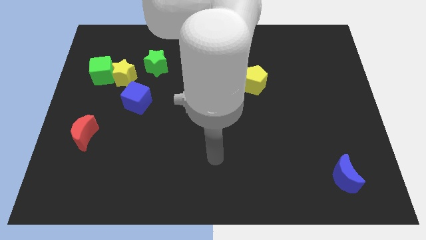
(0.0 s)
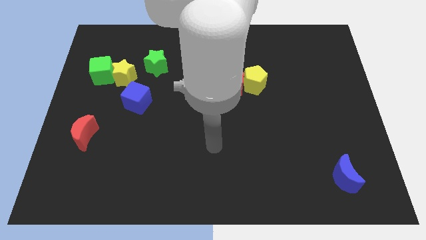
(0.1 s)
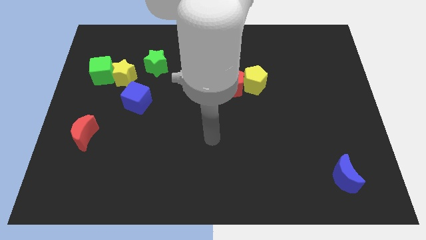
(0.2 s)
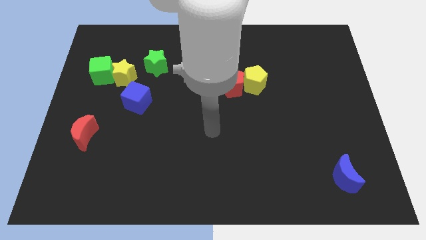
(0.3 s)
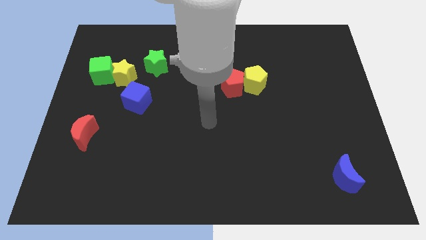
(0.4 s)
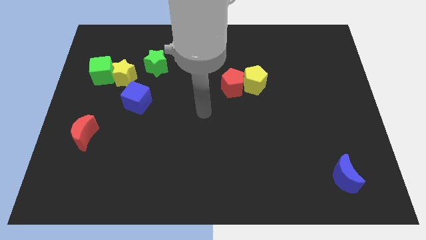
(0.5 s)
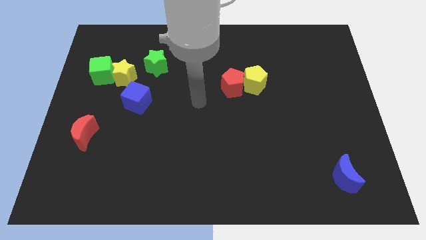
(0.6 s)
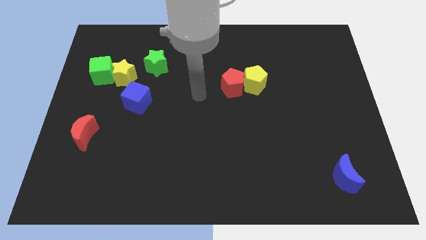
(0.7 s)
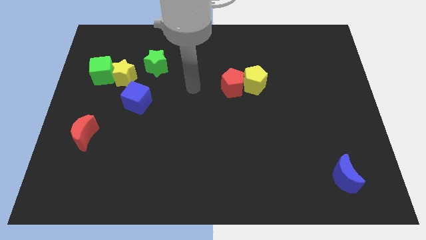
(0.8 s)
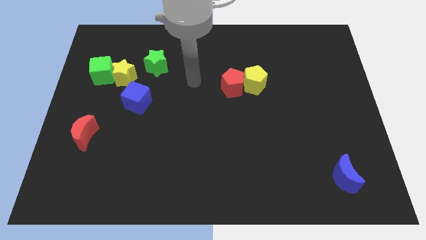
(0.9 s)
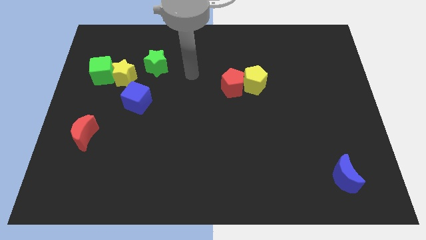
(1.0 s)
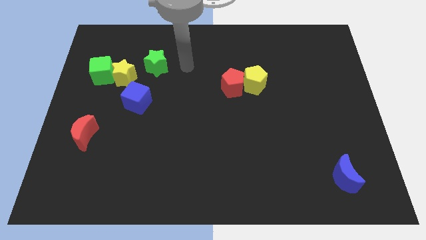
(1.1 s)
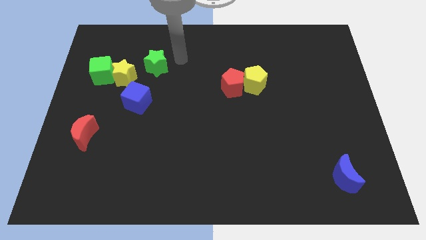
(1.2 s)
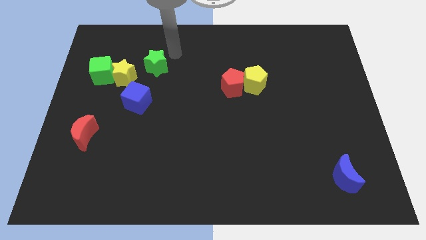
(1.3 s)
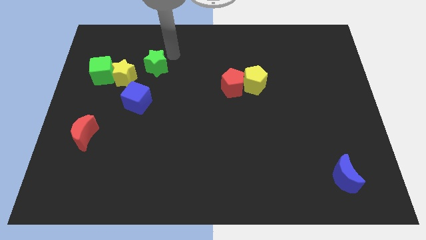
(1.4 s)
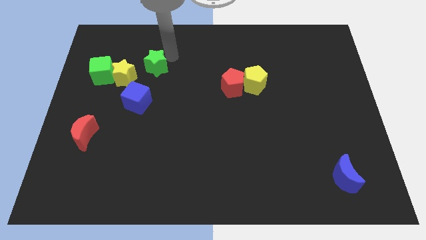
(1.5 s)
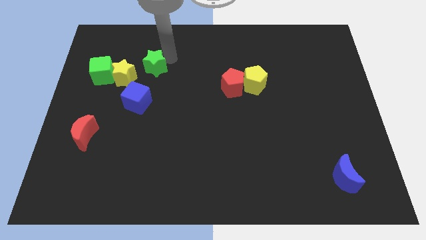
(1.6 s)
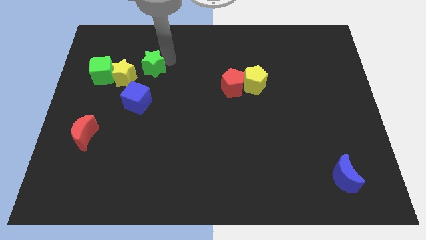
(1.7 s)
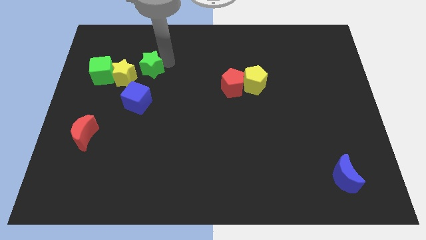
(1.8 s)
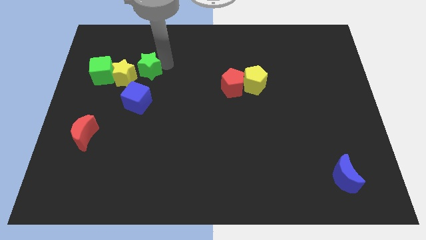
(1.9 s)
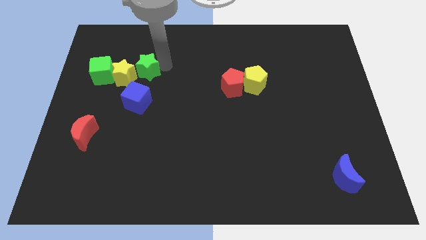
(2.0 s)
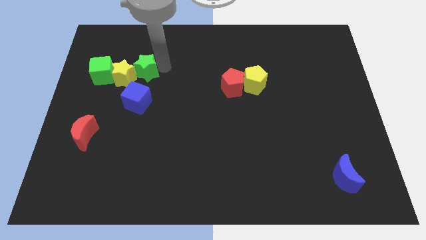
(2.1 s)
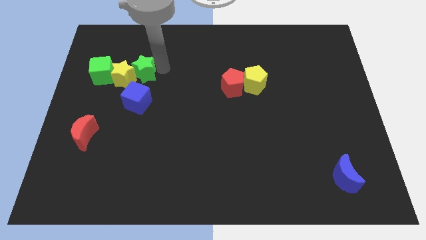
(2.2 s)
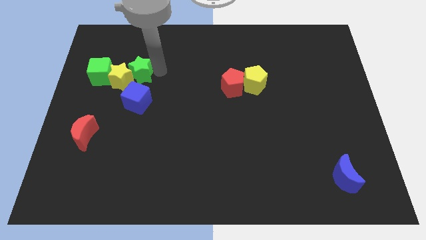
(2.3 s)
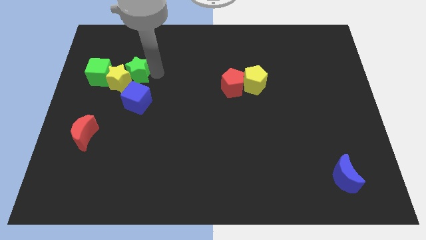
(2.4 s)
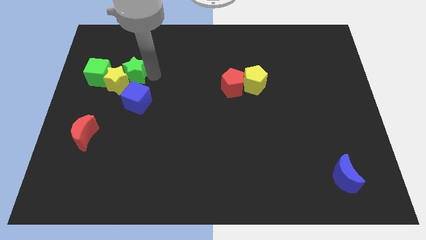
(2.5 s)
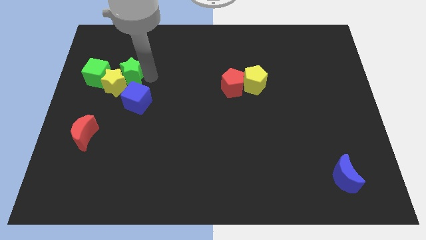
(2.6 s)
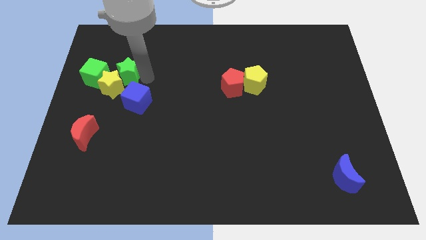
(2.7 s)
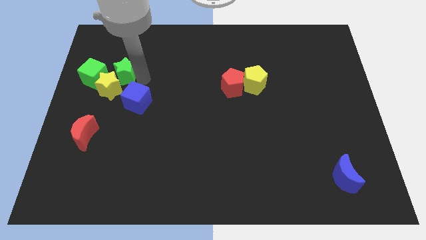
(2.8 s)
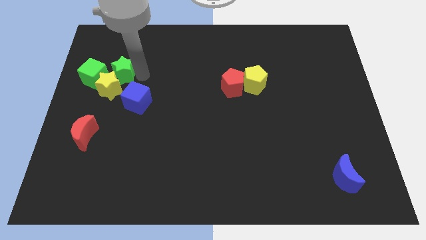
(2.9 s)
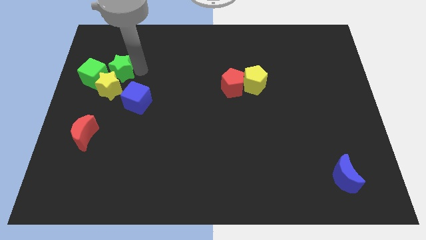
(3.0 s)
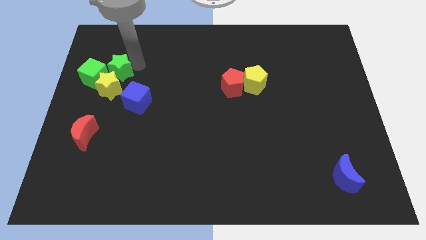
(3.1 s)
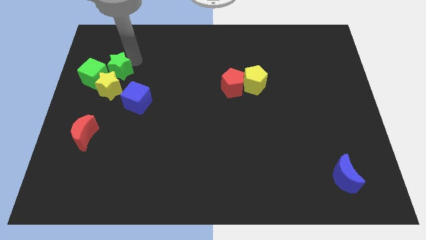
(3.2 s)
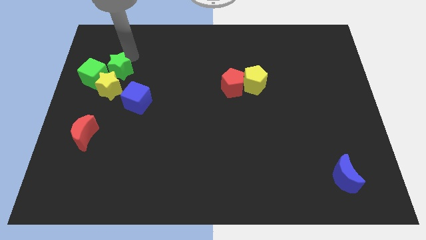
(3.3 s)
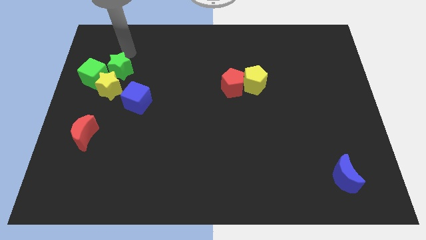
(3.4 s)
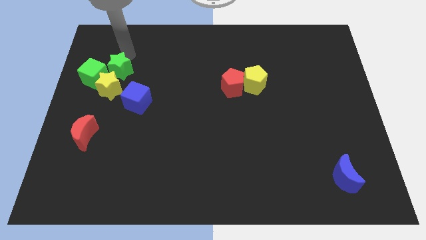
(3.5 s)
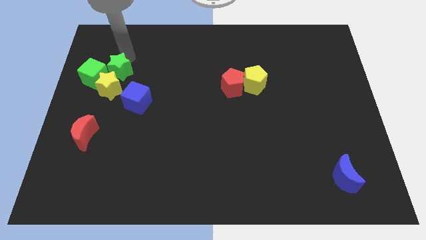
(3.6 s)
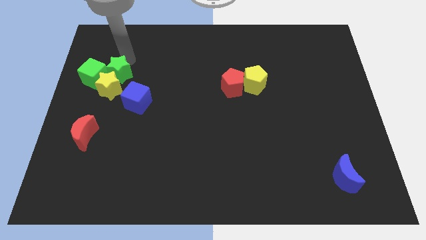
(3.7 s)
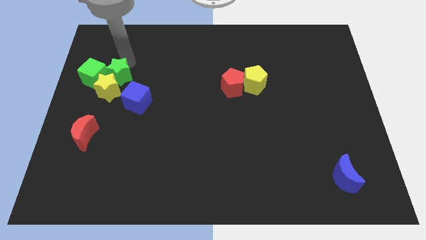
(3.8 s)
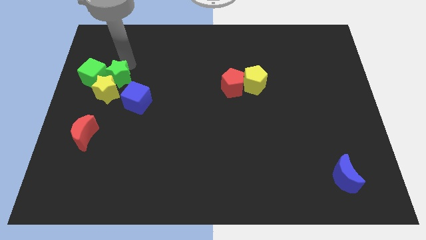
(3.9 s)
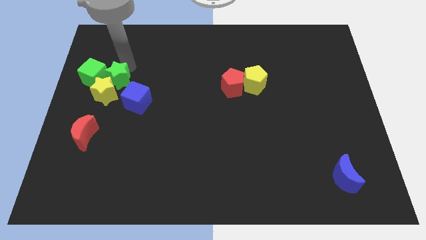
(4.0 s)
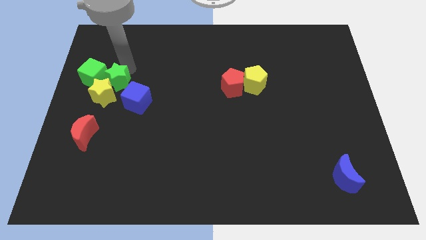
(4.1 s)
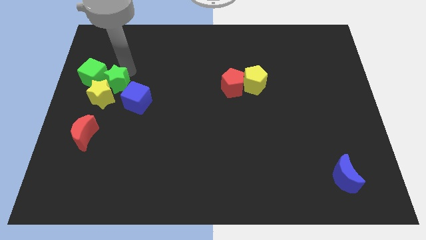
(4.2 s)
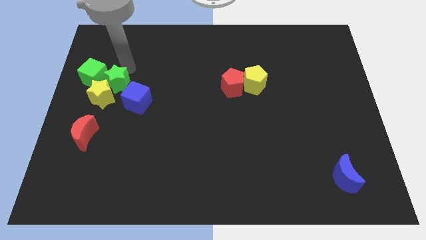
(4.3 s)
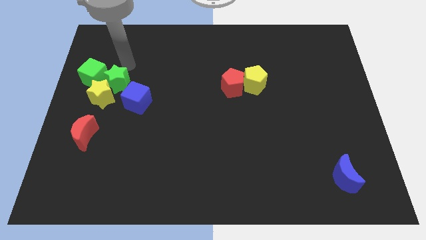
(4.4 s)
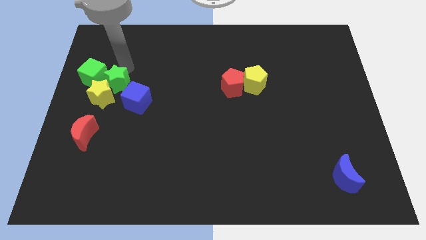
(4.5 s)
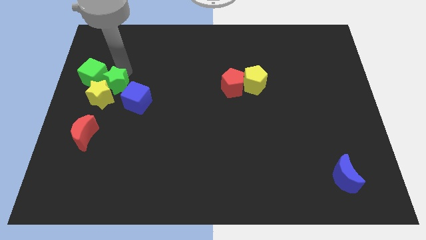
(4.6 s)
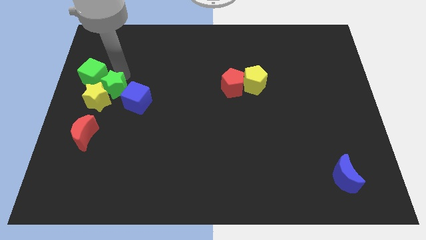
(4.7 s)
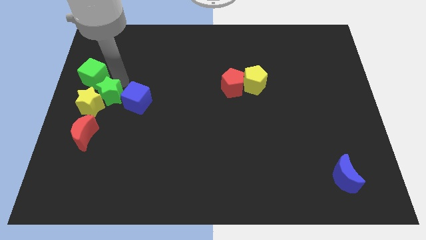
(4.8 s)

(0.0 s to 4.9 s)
push the green star to the bottom of the green cube

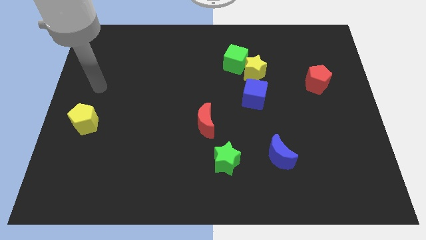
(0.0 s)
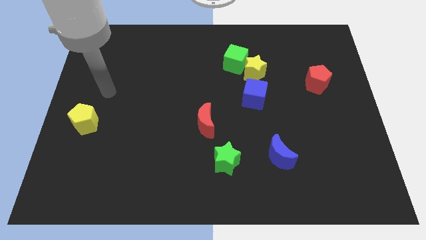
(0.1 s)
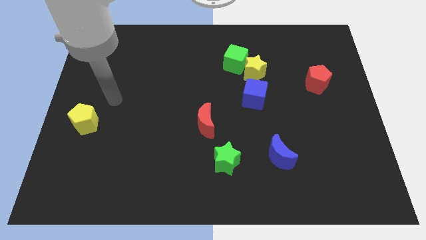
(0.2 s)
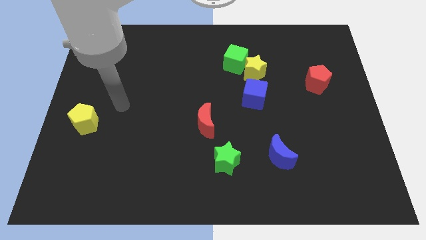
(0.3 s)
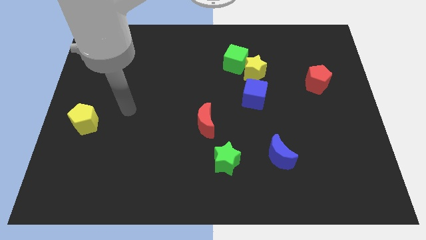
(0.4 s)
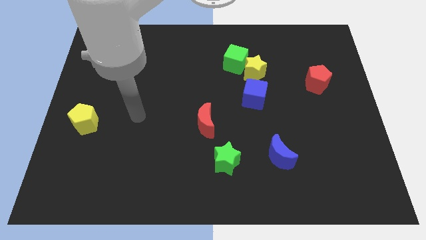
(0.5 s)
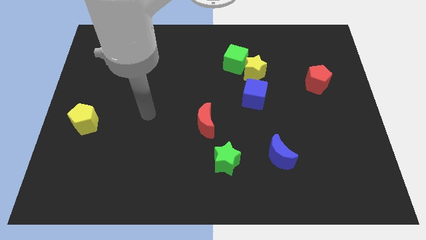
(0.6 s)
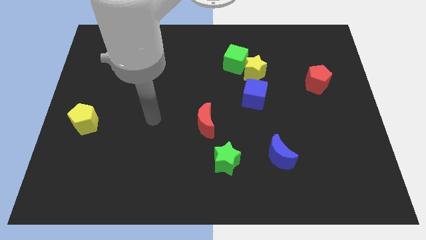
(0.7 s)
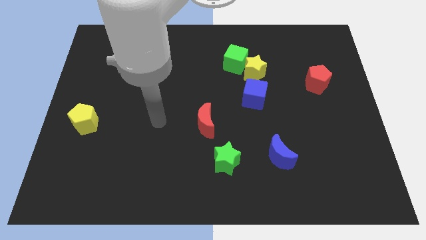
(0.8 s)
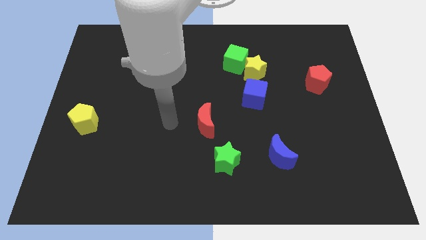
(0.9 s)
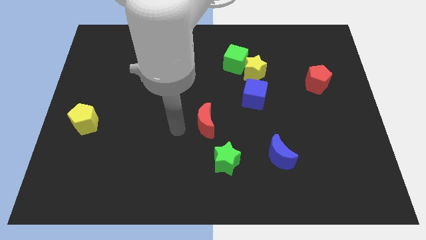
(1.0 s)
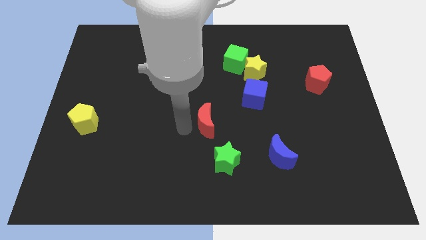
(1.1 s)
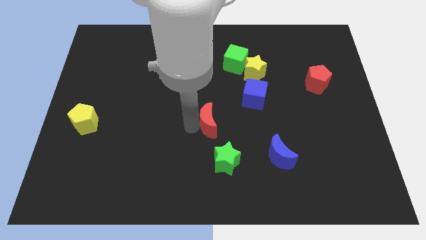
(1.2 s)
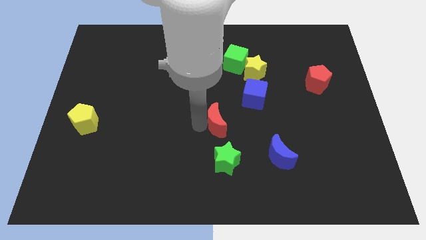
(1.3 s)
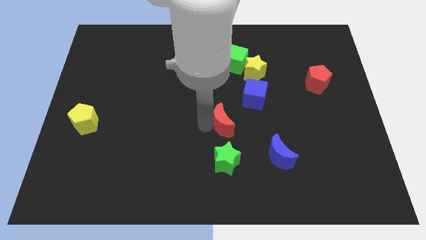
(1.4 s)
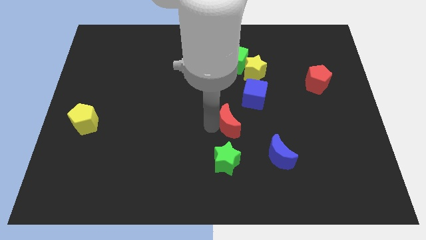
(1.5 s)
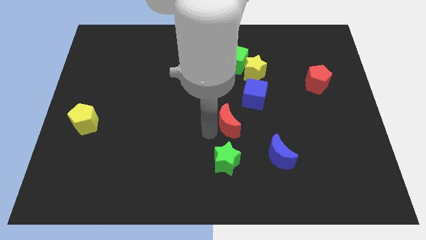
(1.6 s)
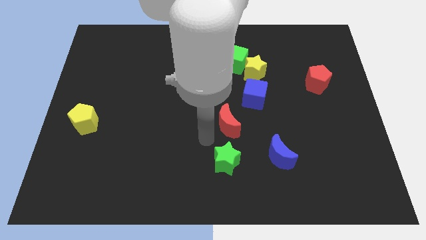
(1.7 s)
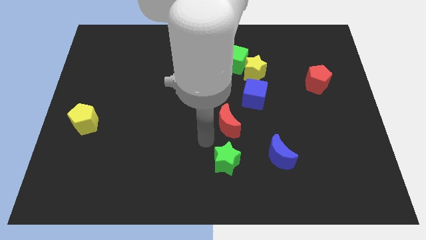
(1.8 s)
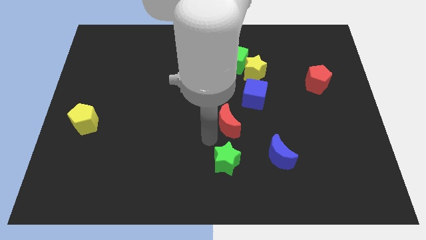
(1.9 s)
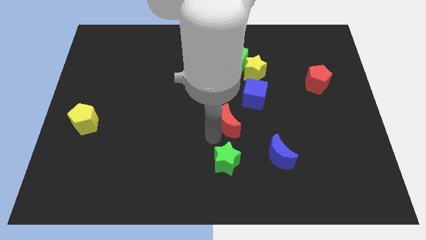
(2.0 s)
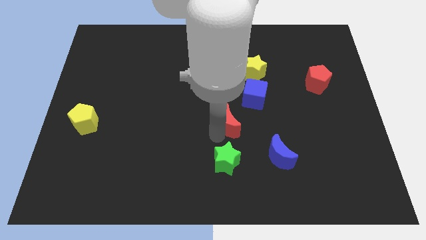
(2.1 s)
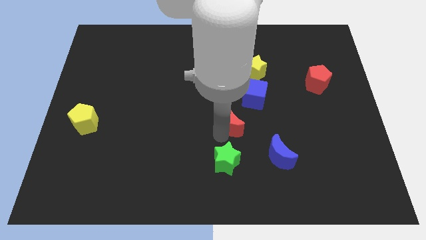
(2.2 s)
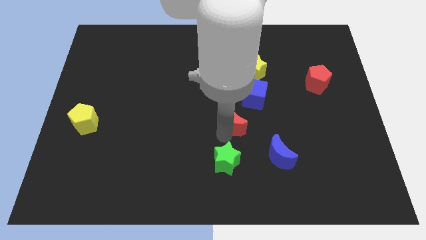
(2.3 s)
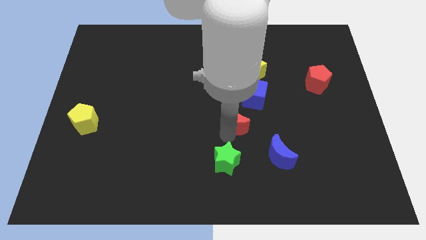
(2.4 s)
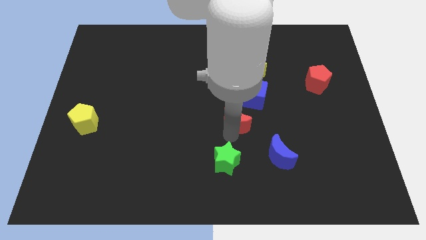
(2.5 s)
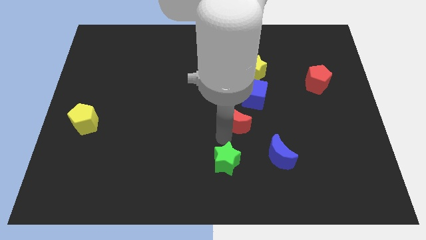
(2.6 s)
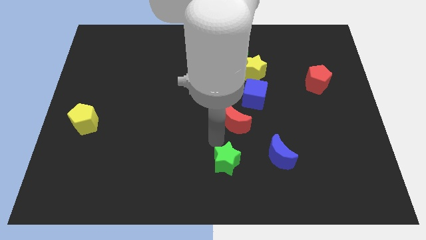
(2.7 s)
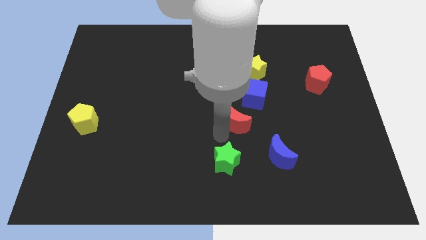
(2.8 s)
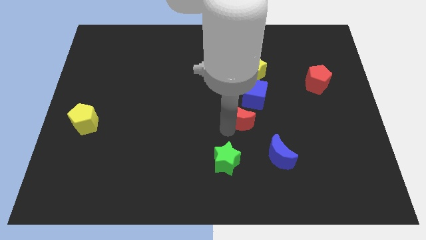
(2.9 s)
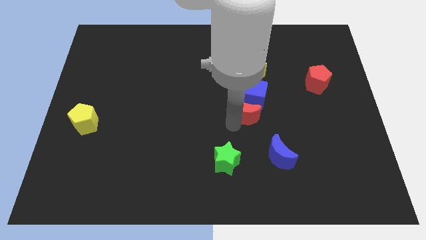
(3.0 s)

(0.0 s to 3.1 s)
put the red moon to the bottom side of the yellow star
